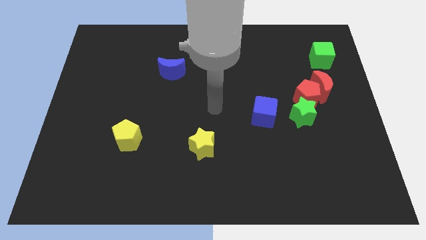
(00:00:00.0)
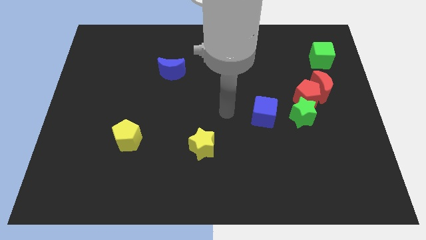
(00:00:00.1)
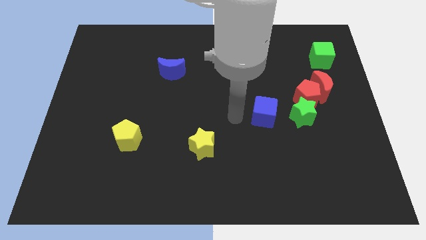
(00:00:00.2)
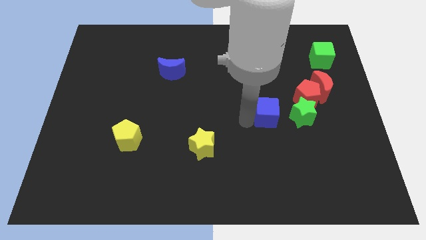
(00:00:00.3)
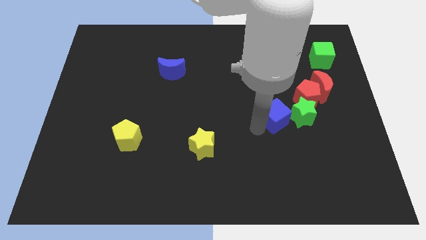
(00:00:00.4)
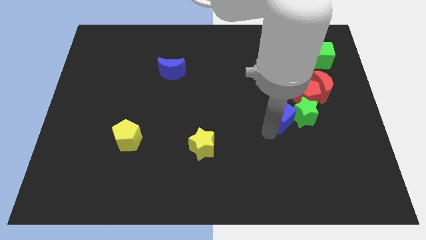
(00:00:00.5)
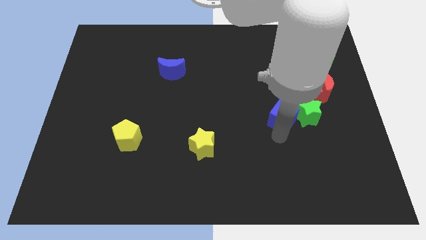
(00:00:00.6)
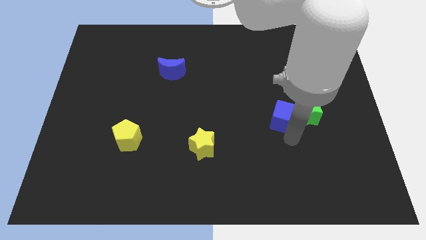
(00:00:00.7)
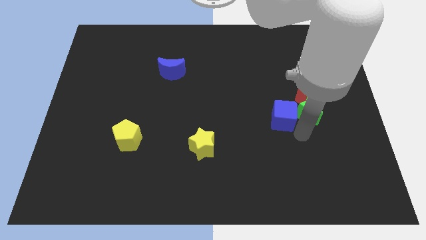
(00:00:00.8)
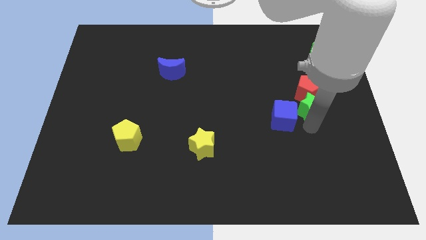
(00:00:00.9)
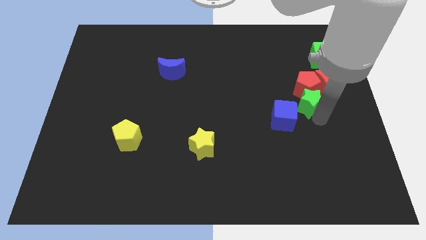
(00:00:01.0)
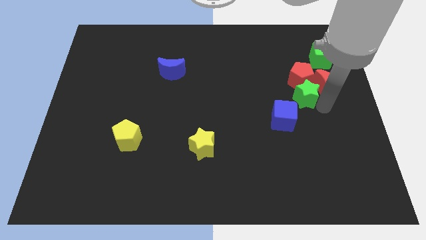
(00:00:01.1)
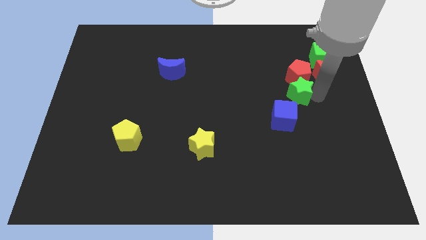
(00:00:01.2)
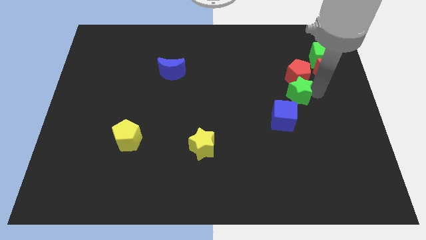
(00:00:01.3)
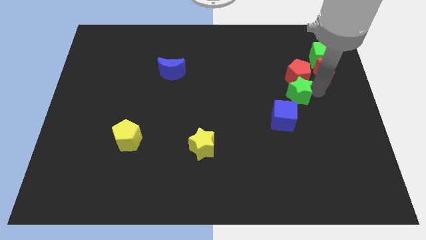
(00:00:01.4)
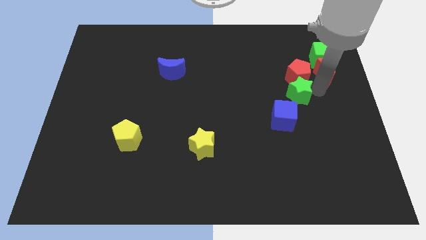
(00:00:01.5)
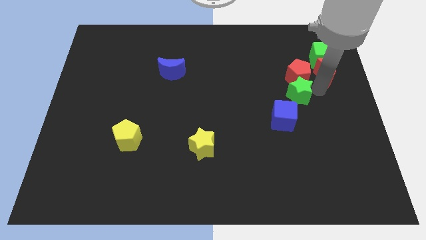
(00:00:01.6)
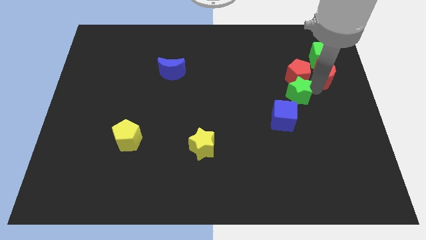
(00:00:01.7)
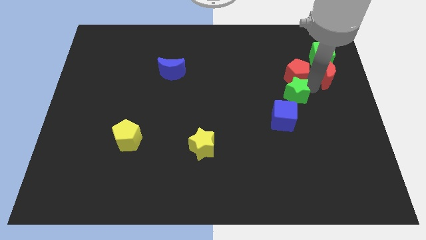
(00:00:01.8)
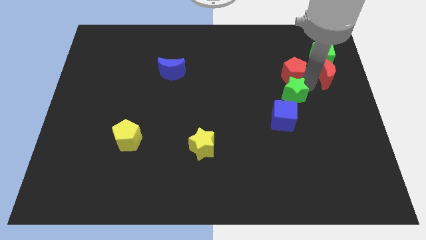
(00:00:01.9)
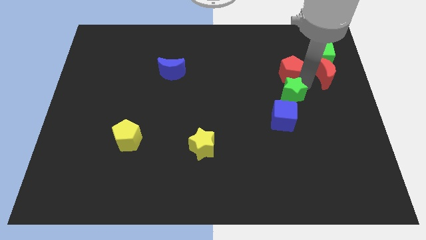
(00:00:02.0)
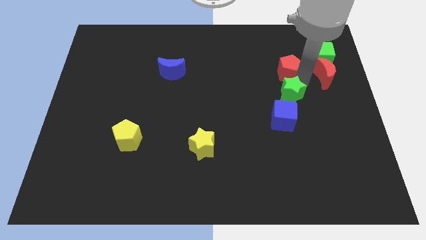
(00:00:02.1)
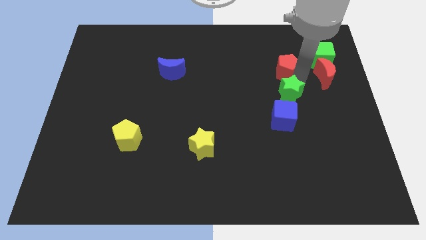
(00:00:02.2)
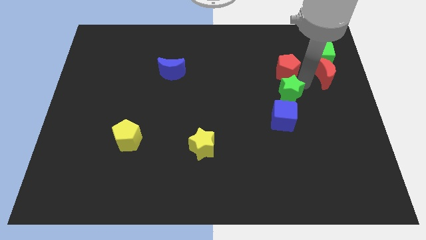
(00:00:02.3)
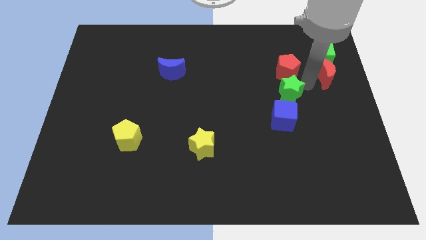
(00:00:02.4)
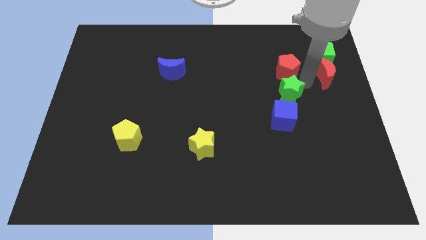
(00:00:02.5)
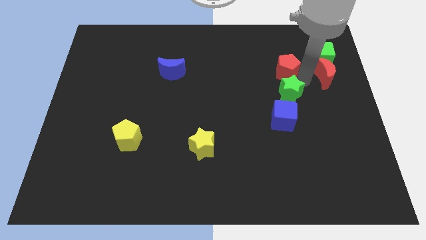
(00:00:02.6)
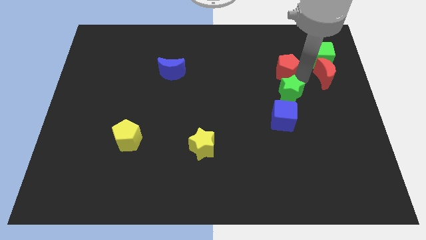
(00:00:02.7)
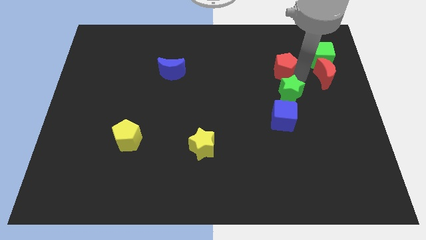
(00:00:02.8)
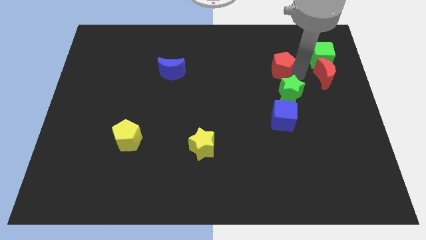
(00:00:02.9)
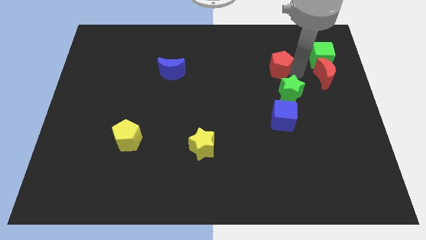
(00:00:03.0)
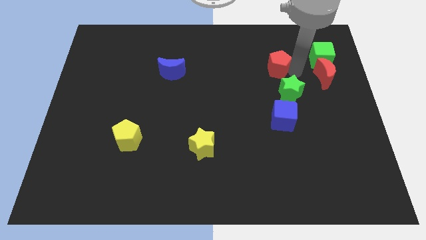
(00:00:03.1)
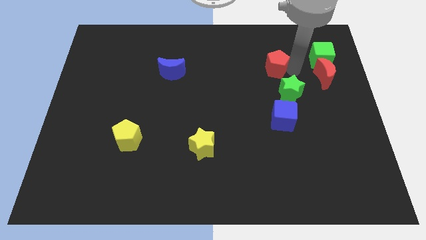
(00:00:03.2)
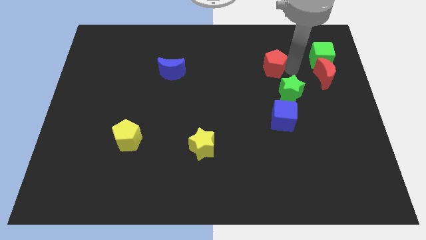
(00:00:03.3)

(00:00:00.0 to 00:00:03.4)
pull the red pentagon apart from the red moon and green star

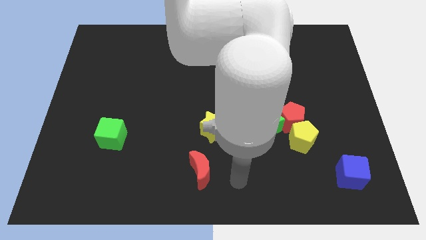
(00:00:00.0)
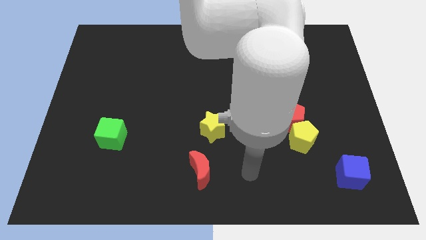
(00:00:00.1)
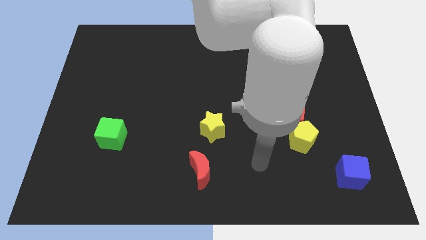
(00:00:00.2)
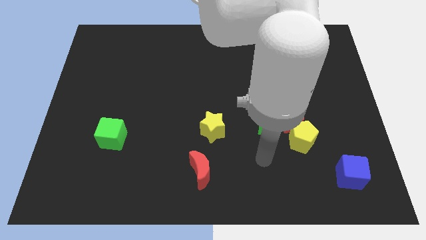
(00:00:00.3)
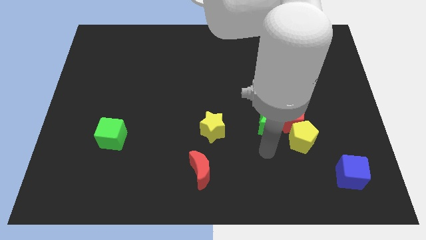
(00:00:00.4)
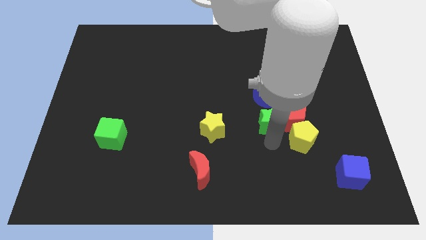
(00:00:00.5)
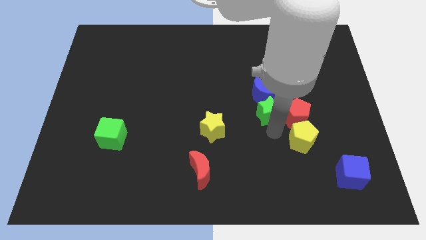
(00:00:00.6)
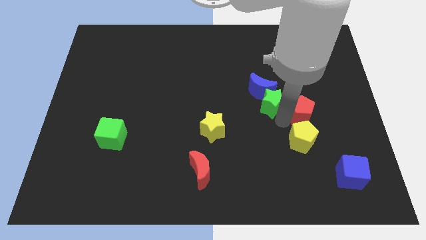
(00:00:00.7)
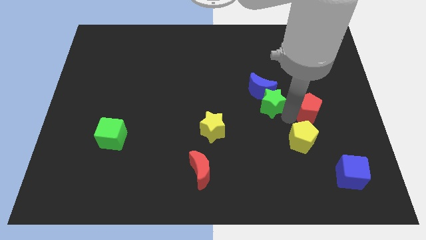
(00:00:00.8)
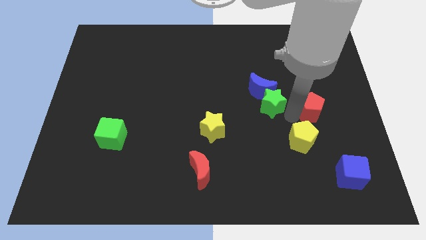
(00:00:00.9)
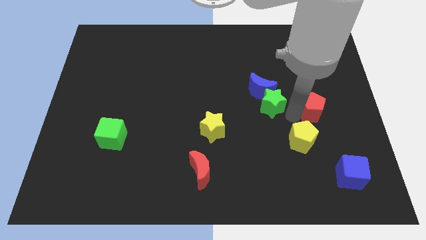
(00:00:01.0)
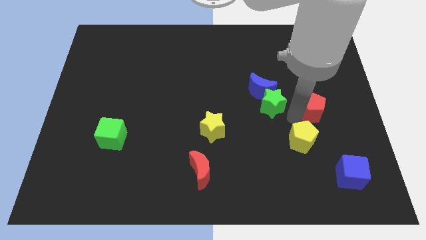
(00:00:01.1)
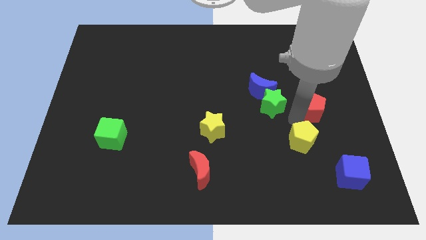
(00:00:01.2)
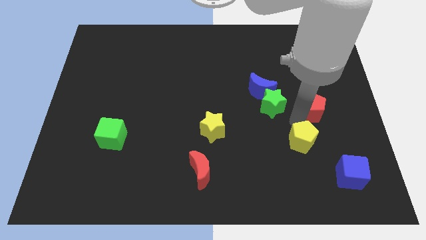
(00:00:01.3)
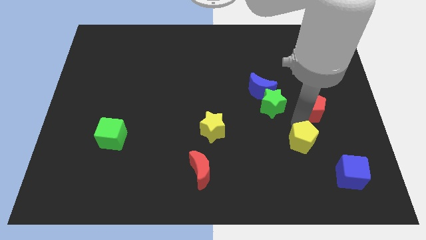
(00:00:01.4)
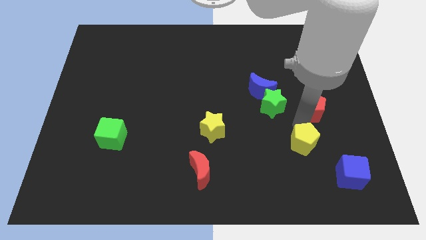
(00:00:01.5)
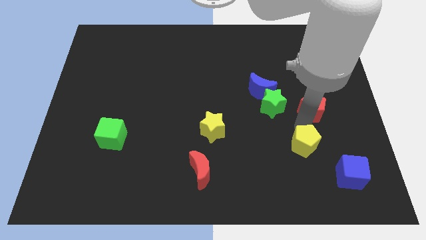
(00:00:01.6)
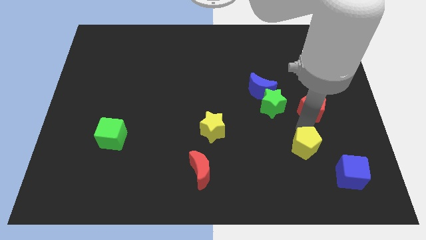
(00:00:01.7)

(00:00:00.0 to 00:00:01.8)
separate the yellow pentagon from the red pentagon and green star

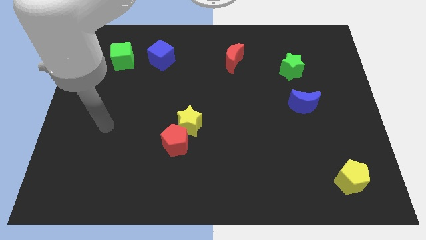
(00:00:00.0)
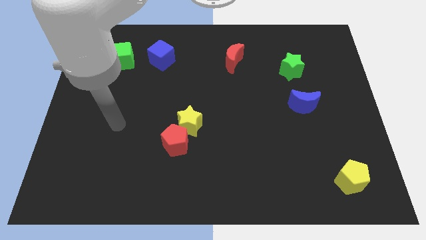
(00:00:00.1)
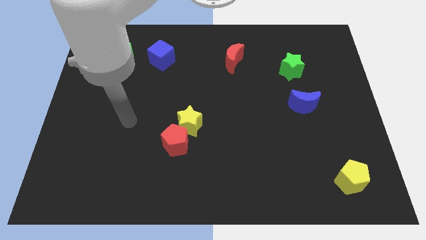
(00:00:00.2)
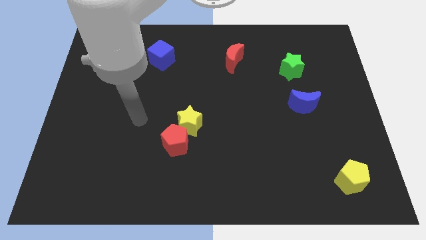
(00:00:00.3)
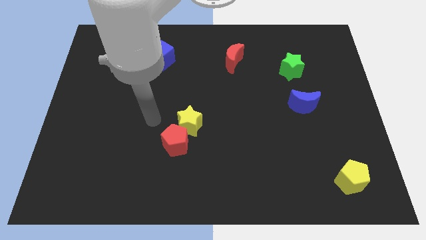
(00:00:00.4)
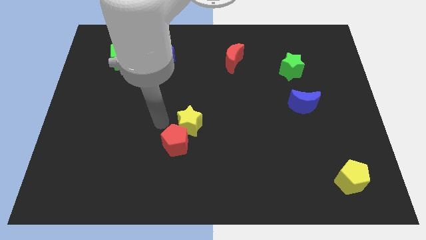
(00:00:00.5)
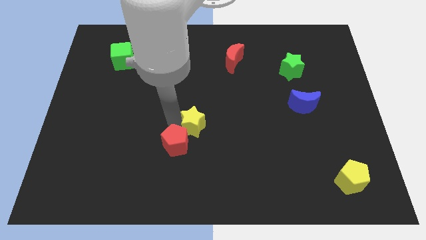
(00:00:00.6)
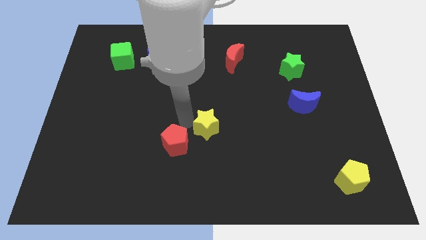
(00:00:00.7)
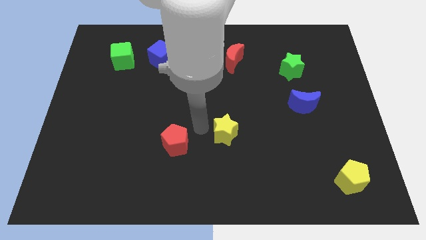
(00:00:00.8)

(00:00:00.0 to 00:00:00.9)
pull the red pentagon apart from the yellow star

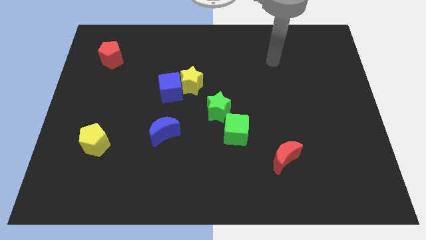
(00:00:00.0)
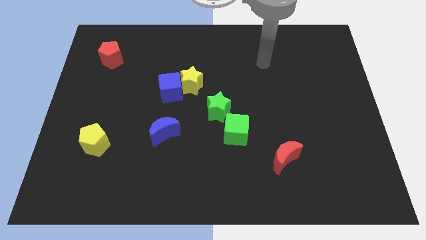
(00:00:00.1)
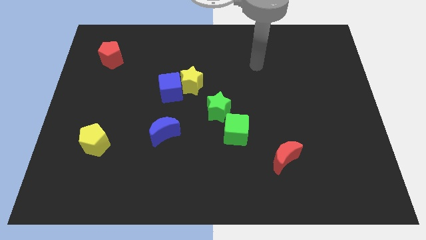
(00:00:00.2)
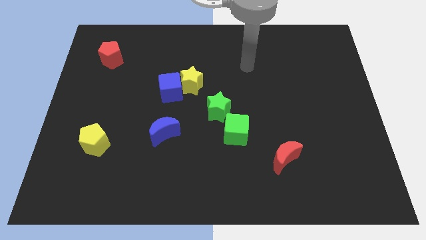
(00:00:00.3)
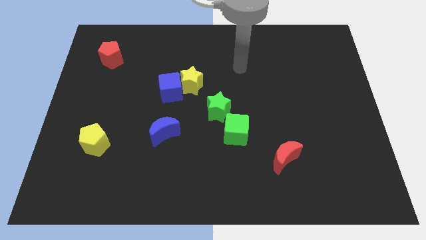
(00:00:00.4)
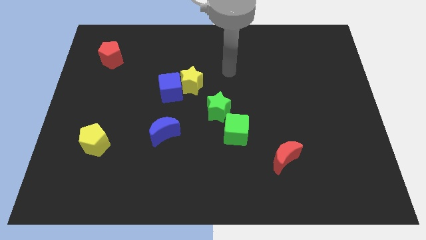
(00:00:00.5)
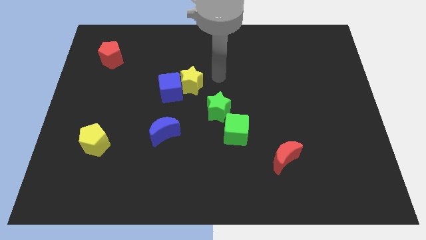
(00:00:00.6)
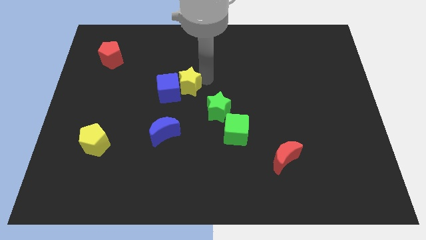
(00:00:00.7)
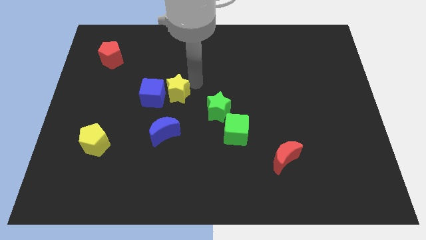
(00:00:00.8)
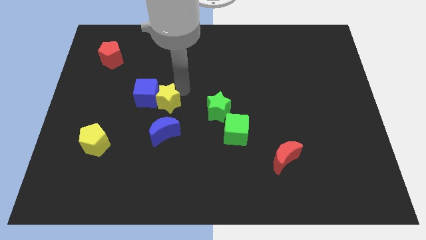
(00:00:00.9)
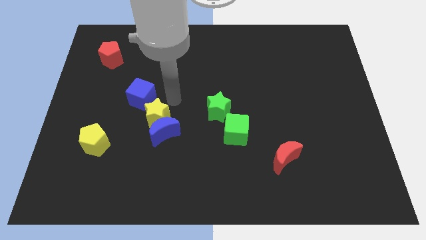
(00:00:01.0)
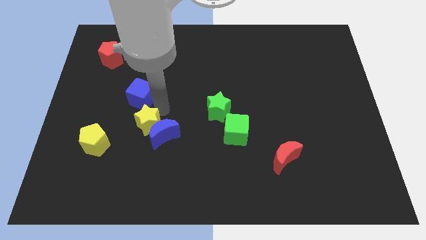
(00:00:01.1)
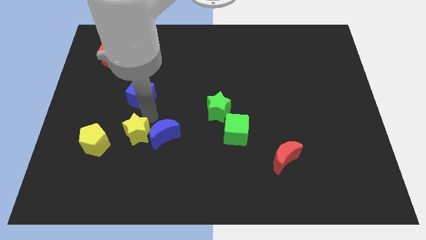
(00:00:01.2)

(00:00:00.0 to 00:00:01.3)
move the blue cube away from the yellow star

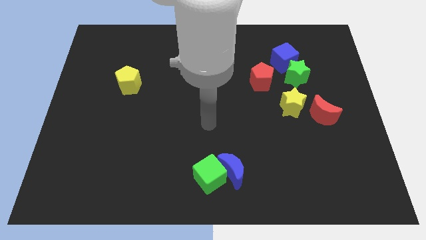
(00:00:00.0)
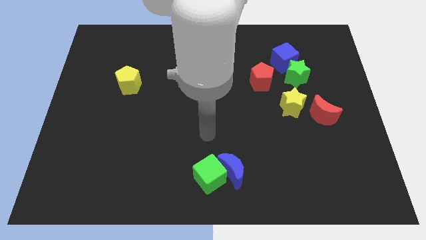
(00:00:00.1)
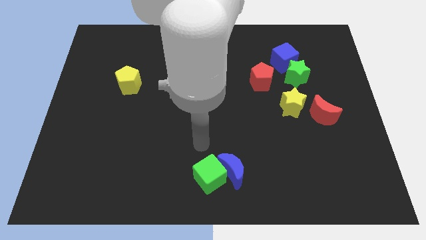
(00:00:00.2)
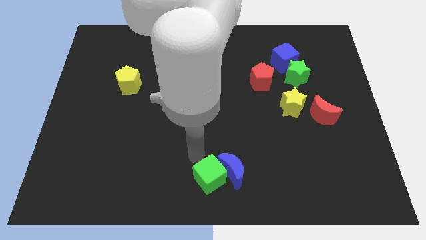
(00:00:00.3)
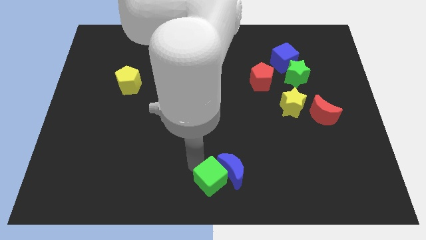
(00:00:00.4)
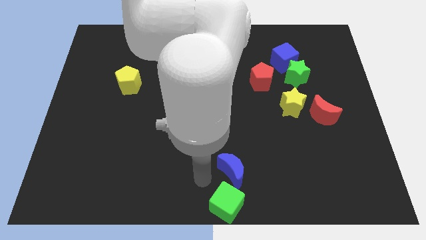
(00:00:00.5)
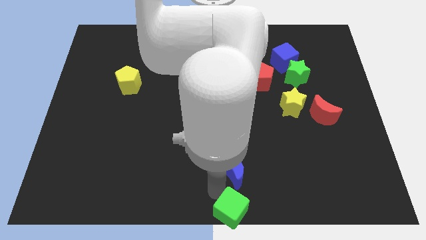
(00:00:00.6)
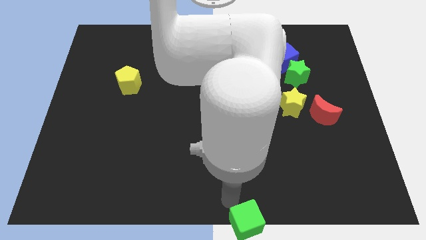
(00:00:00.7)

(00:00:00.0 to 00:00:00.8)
pull the blue moon apart from the green cube

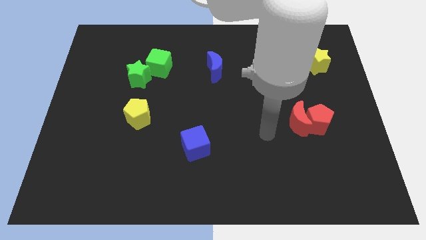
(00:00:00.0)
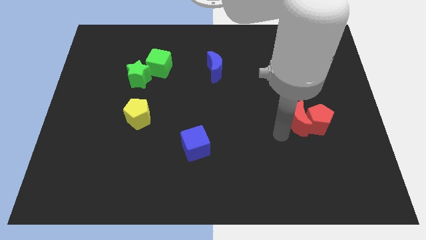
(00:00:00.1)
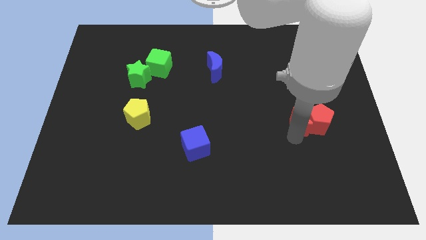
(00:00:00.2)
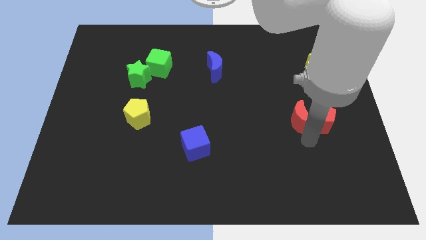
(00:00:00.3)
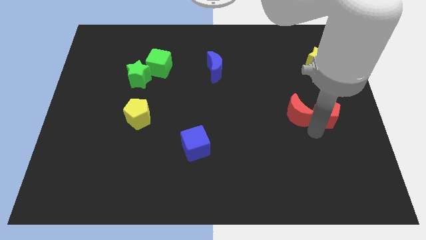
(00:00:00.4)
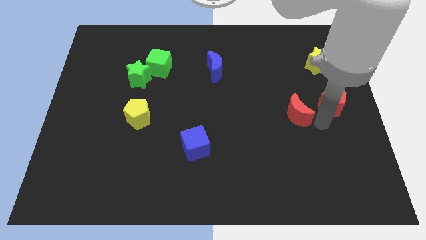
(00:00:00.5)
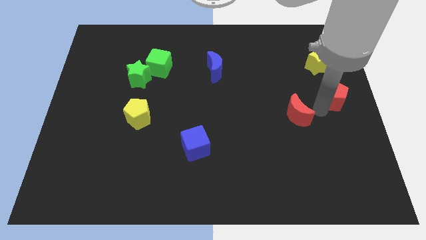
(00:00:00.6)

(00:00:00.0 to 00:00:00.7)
move the red moon away from the red pentagon

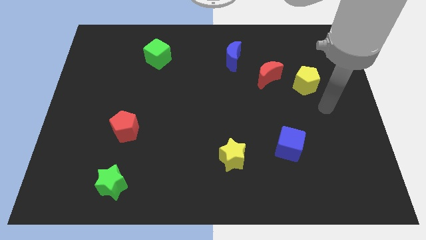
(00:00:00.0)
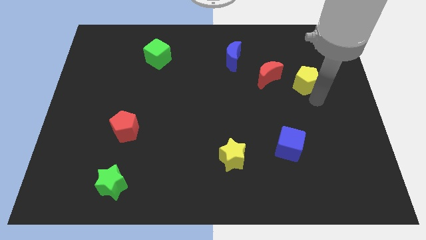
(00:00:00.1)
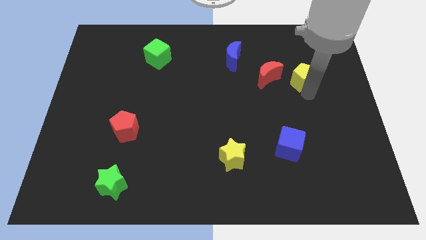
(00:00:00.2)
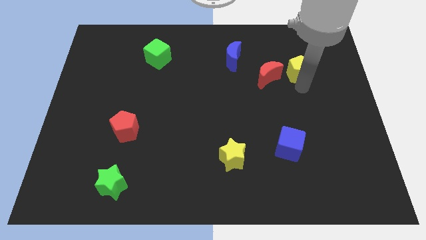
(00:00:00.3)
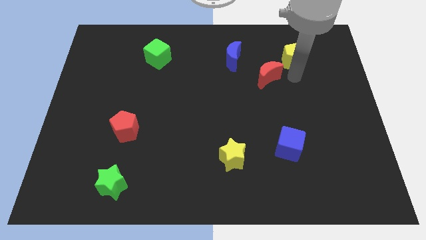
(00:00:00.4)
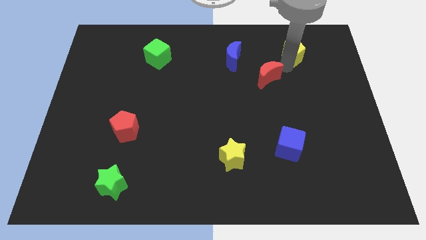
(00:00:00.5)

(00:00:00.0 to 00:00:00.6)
move the red moon away from the yellow pentagon
